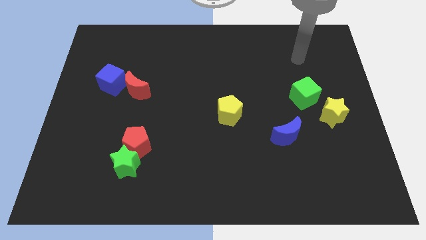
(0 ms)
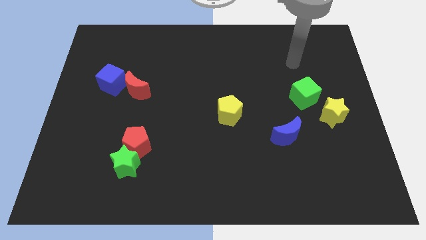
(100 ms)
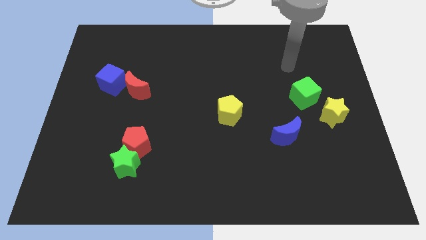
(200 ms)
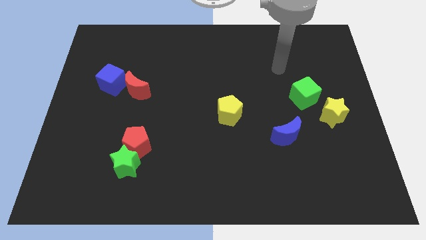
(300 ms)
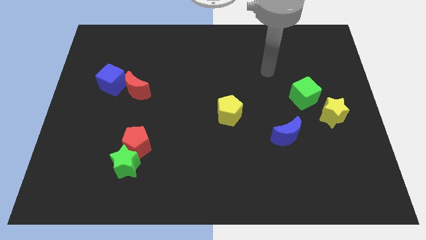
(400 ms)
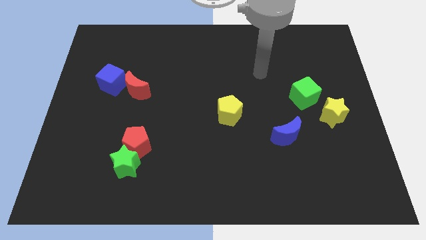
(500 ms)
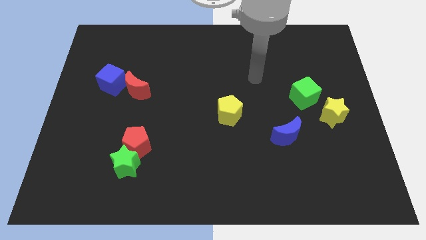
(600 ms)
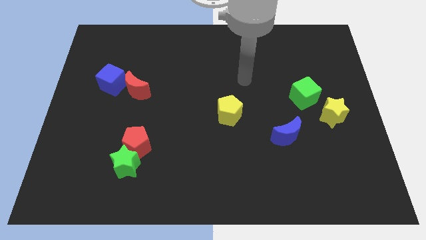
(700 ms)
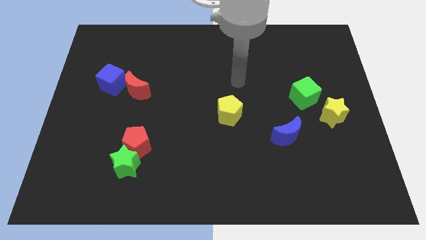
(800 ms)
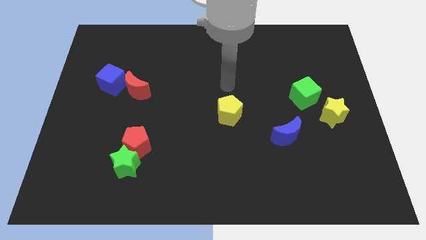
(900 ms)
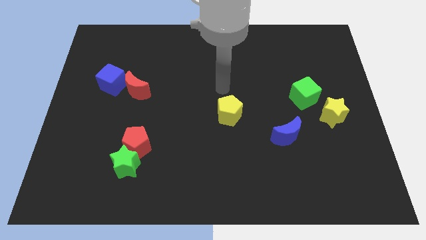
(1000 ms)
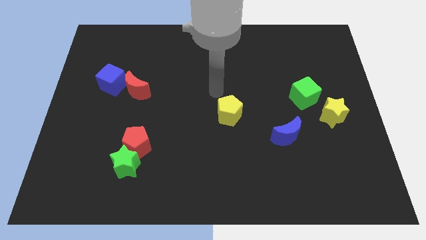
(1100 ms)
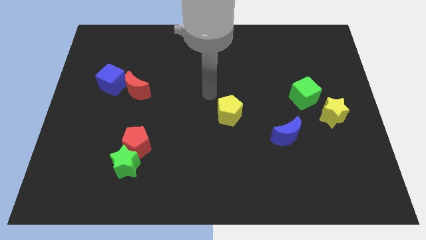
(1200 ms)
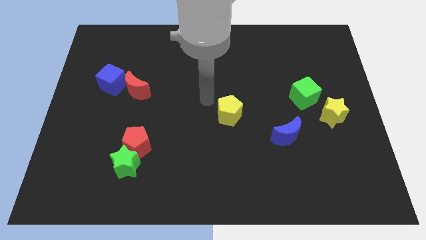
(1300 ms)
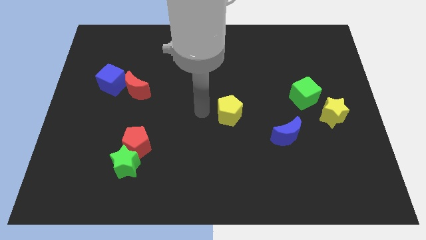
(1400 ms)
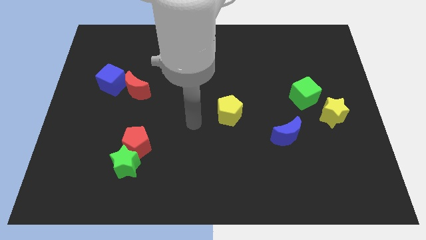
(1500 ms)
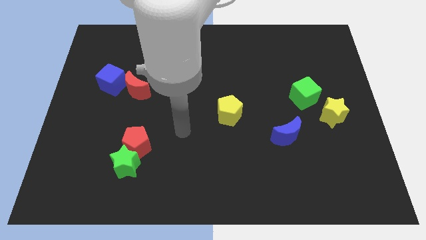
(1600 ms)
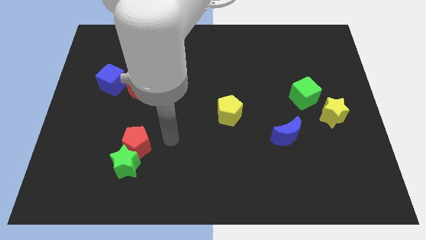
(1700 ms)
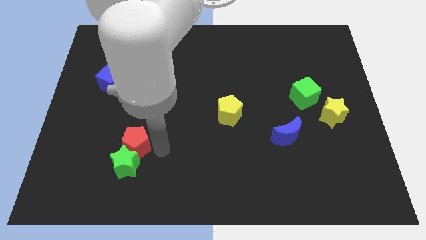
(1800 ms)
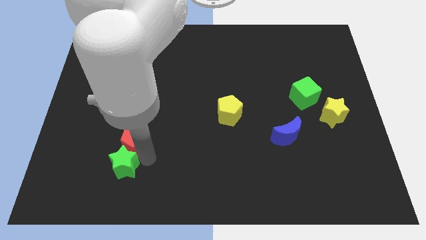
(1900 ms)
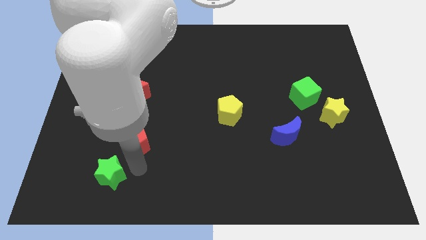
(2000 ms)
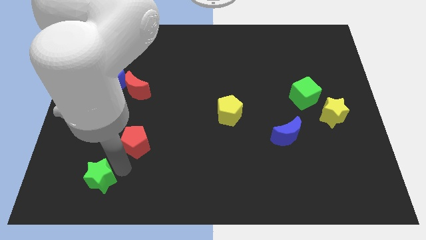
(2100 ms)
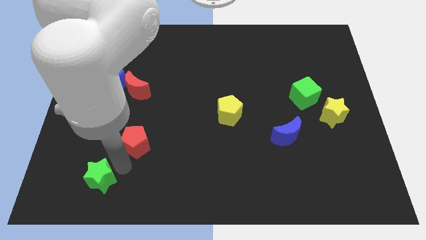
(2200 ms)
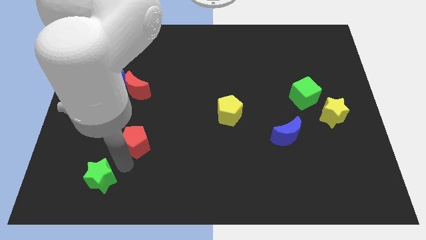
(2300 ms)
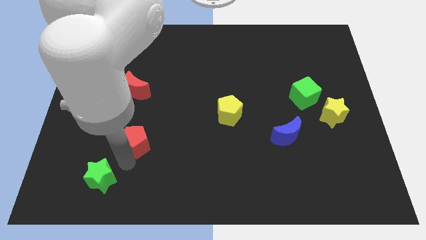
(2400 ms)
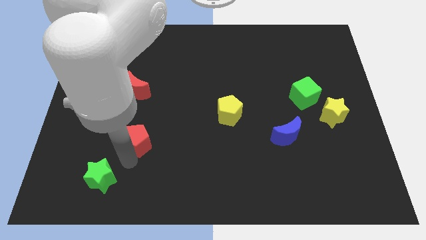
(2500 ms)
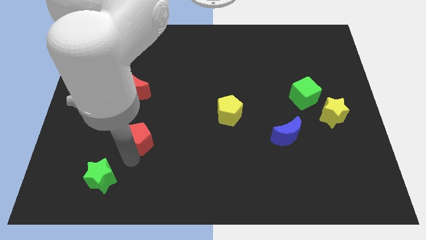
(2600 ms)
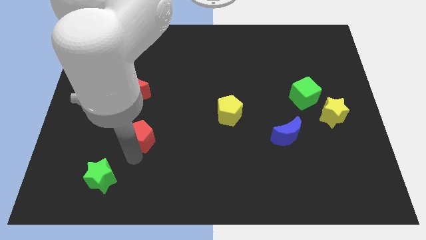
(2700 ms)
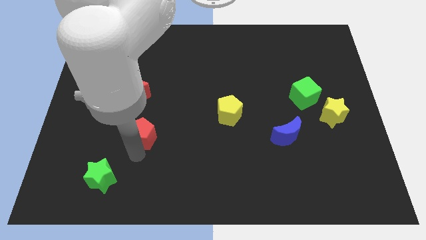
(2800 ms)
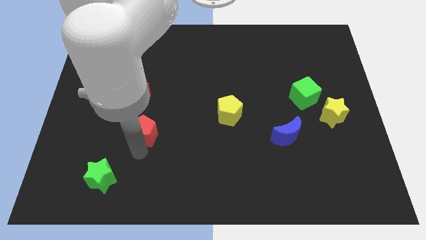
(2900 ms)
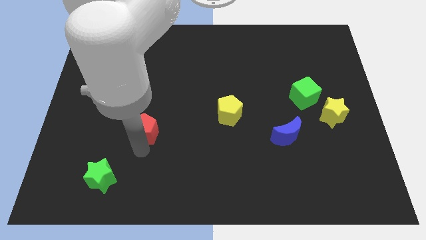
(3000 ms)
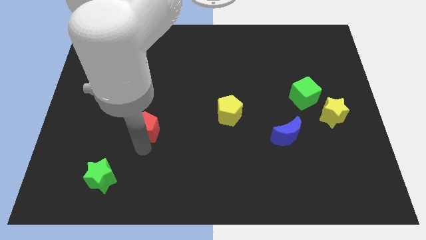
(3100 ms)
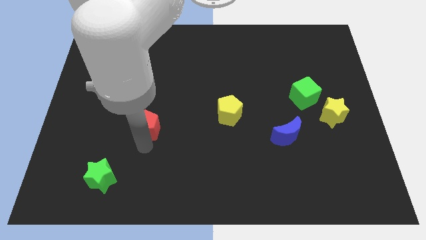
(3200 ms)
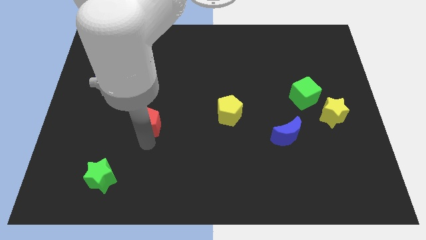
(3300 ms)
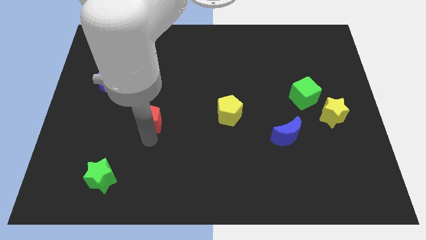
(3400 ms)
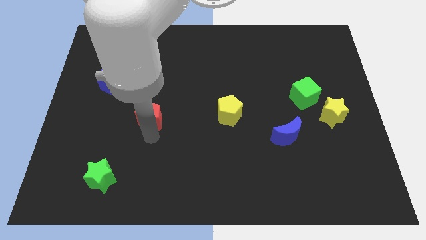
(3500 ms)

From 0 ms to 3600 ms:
move the red pentagon up a little

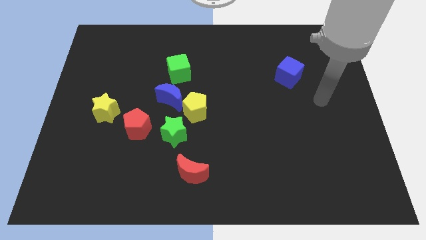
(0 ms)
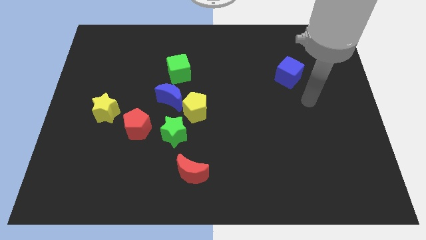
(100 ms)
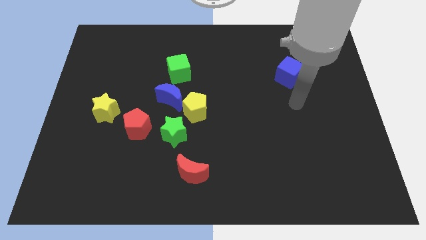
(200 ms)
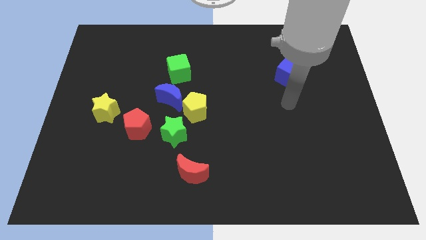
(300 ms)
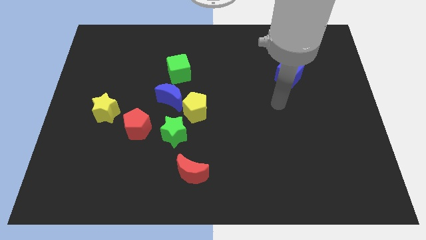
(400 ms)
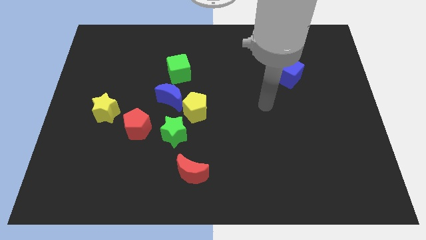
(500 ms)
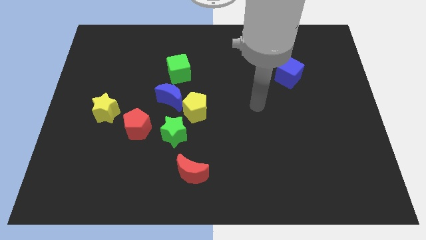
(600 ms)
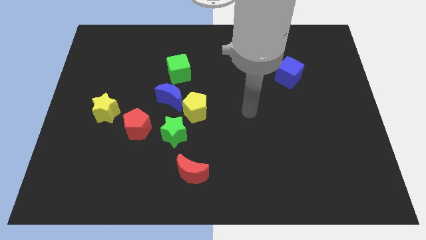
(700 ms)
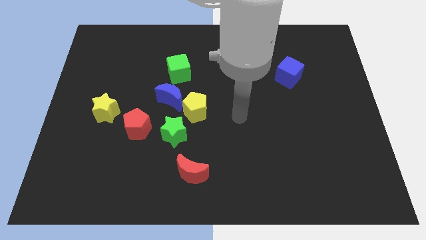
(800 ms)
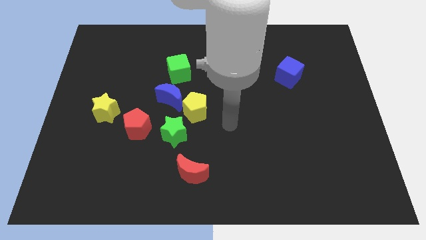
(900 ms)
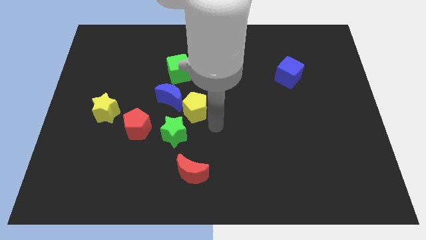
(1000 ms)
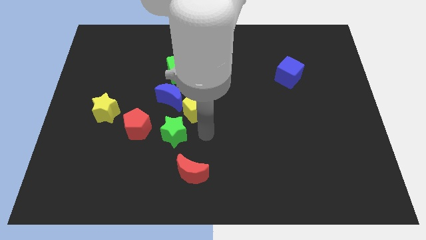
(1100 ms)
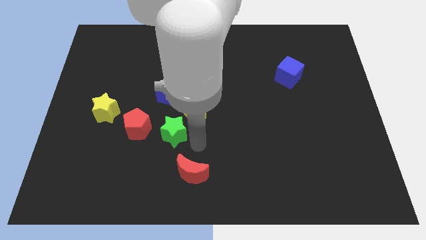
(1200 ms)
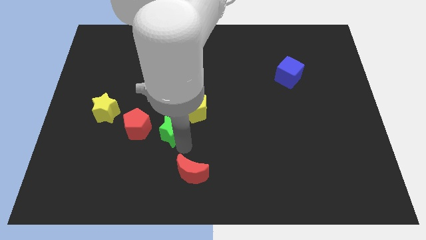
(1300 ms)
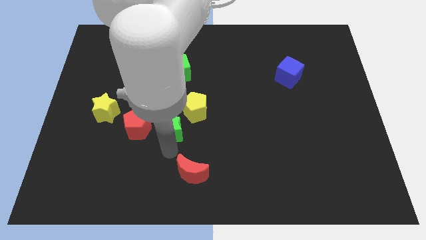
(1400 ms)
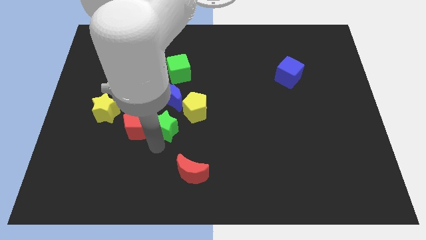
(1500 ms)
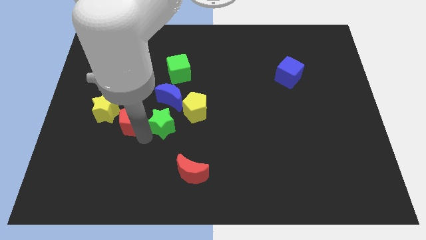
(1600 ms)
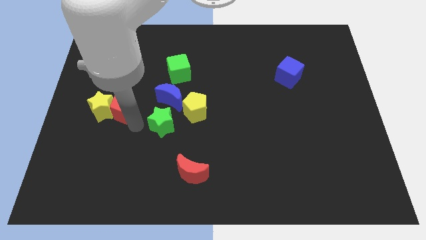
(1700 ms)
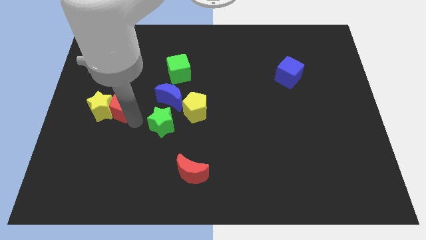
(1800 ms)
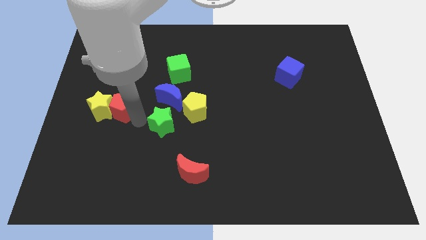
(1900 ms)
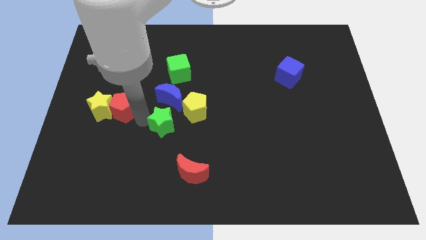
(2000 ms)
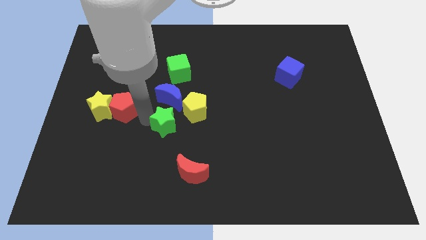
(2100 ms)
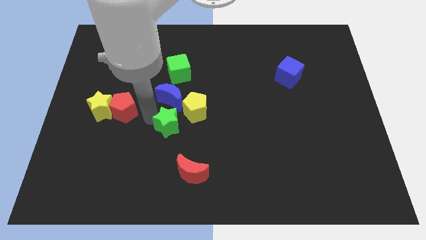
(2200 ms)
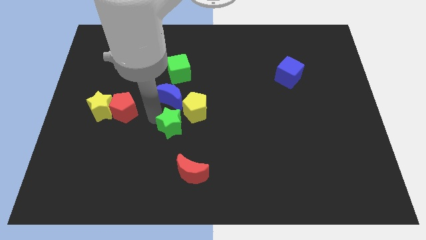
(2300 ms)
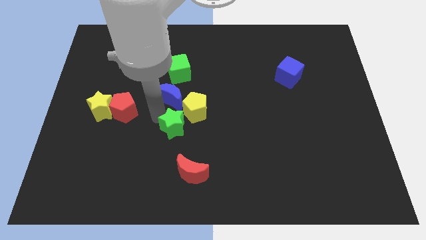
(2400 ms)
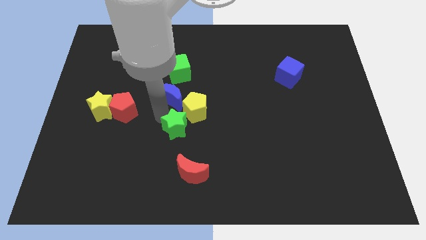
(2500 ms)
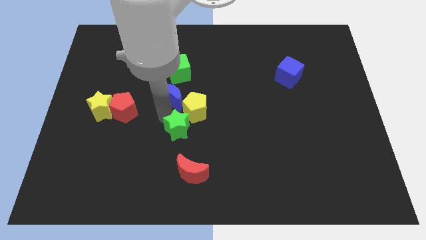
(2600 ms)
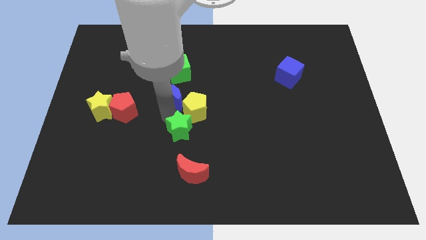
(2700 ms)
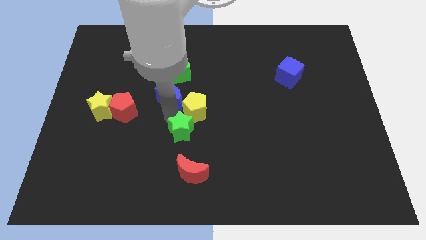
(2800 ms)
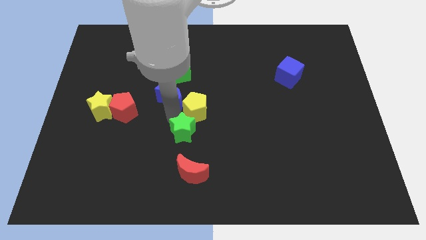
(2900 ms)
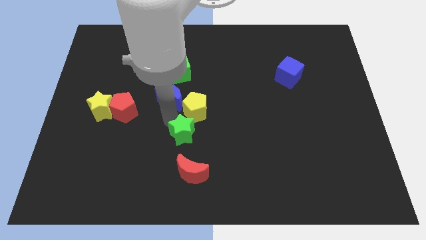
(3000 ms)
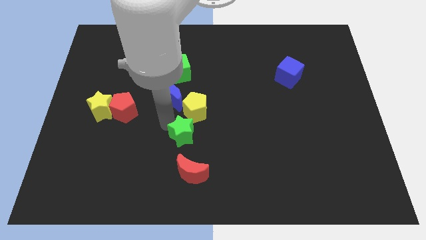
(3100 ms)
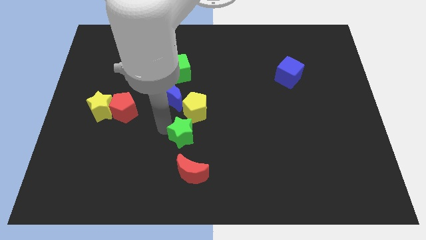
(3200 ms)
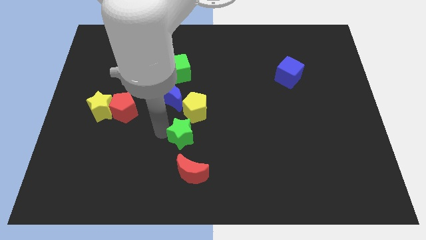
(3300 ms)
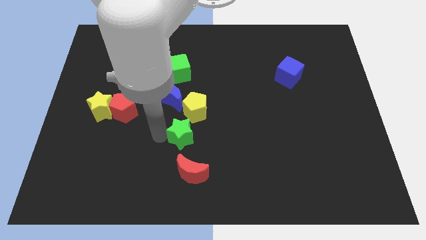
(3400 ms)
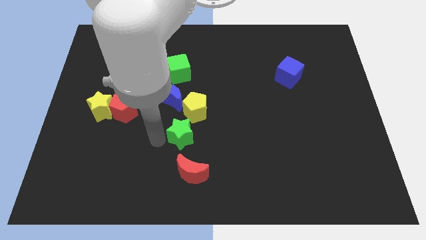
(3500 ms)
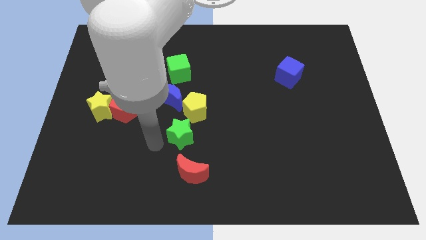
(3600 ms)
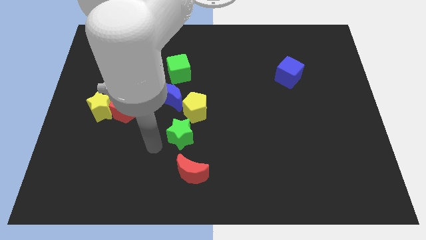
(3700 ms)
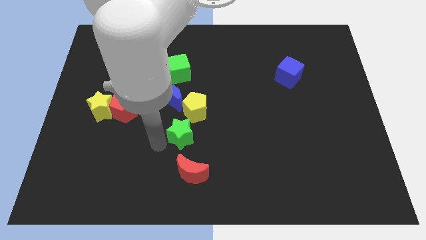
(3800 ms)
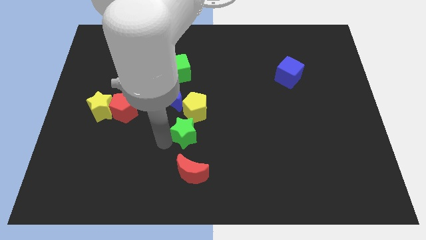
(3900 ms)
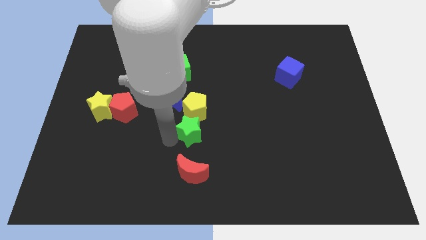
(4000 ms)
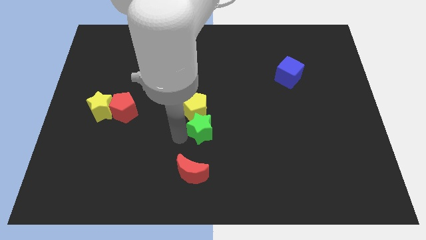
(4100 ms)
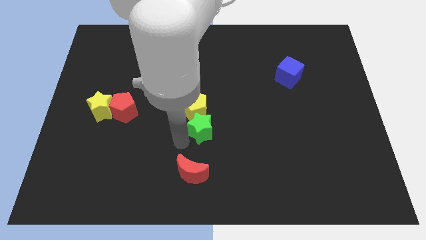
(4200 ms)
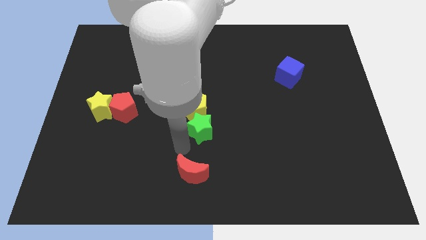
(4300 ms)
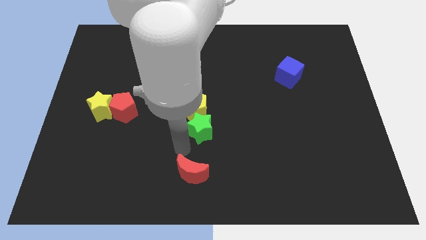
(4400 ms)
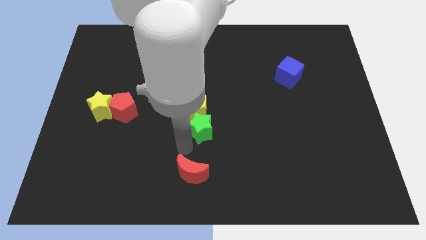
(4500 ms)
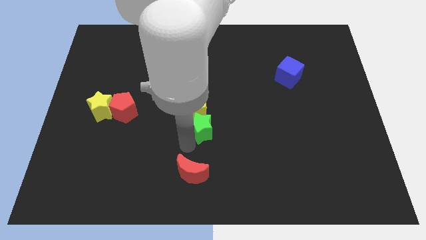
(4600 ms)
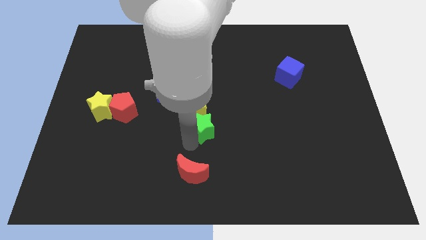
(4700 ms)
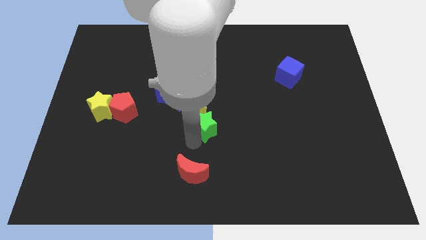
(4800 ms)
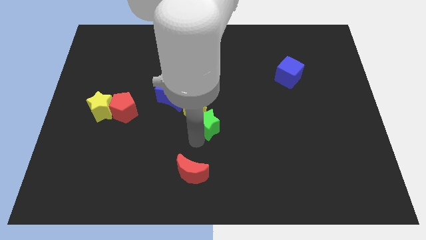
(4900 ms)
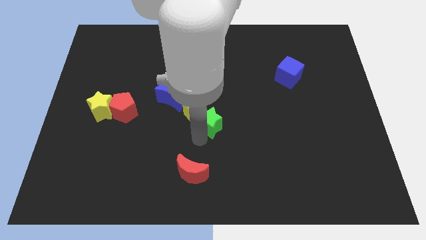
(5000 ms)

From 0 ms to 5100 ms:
push the green star up and to the right a little
